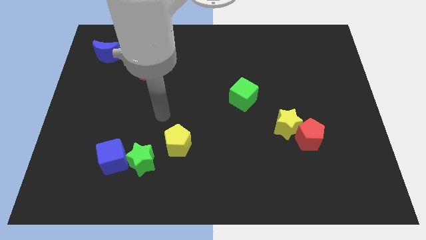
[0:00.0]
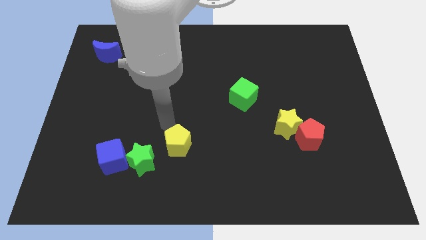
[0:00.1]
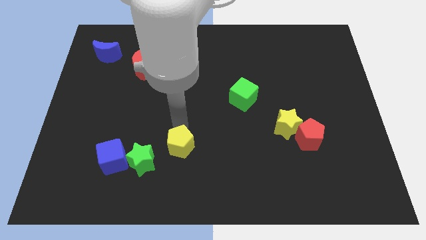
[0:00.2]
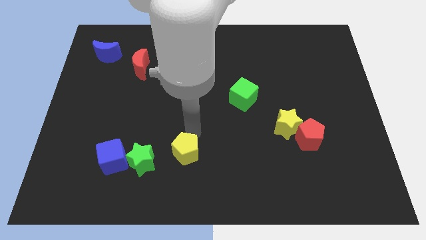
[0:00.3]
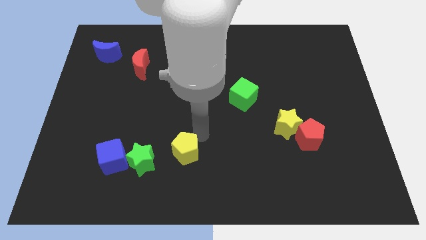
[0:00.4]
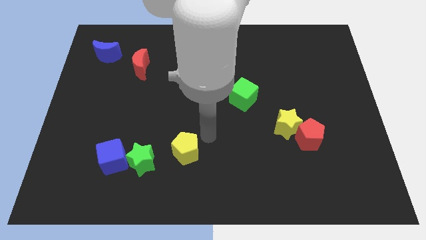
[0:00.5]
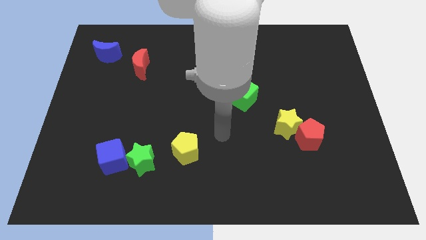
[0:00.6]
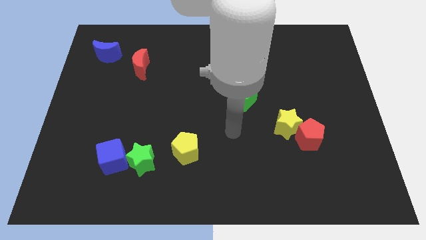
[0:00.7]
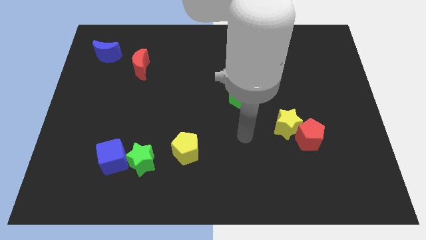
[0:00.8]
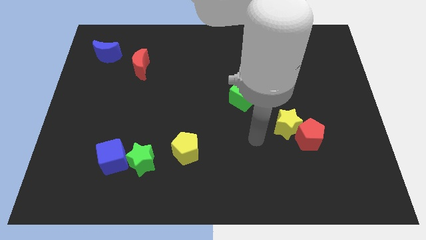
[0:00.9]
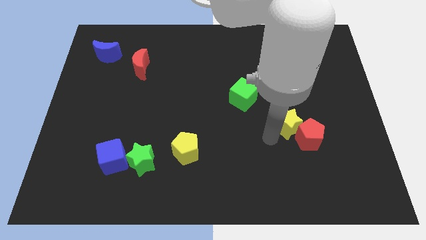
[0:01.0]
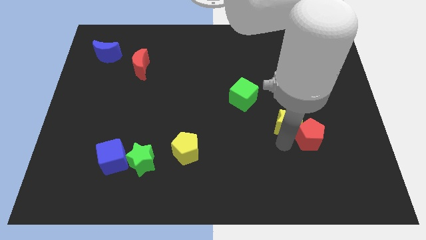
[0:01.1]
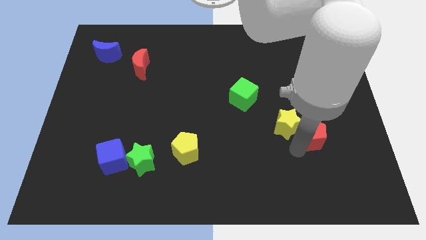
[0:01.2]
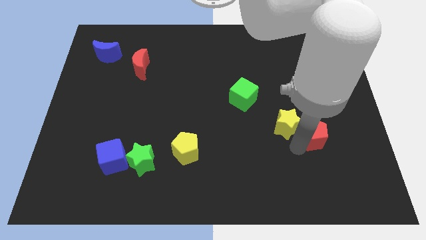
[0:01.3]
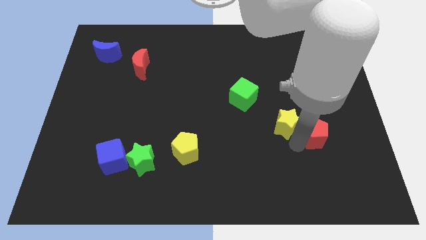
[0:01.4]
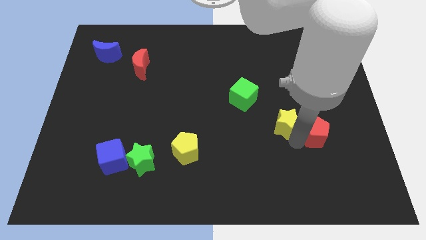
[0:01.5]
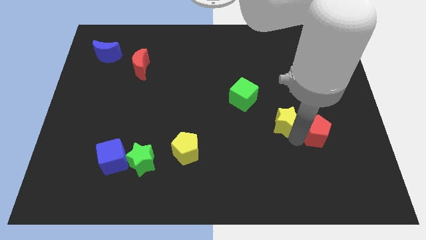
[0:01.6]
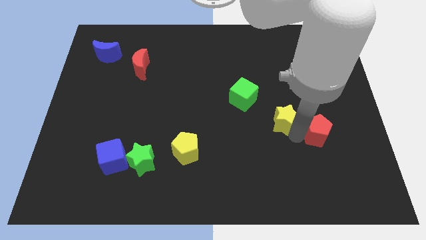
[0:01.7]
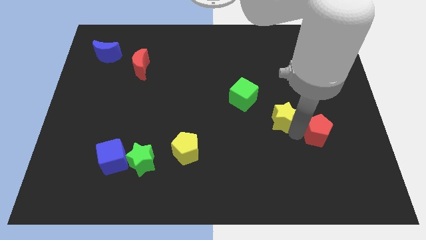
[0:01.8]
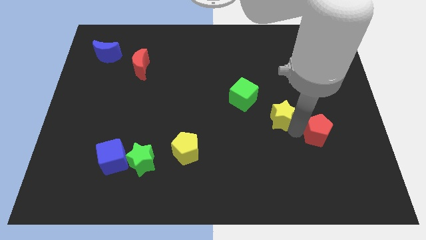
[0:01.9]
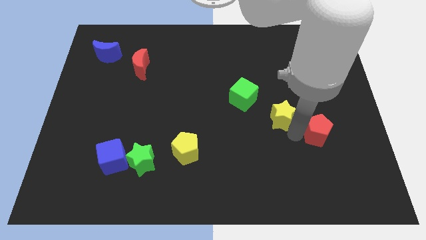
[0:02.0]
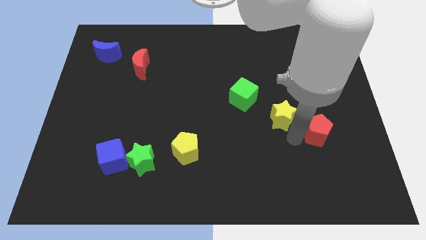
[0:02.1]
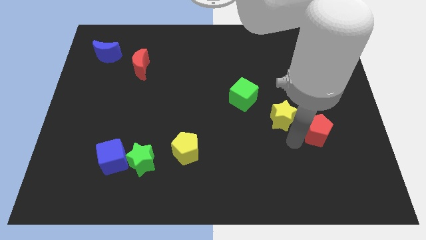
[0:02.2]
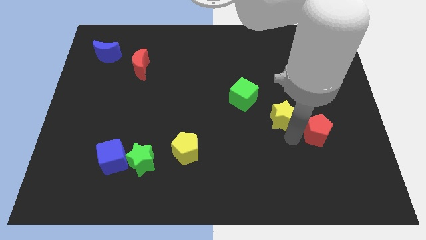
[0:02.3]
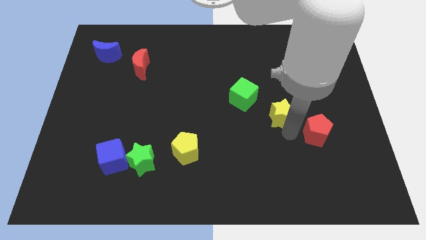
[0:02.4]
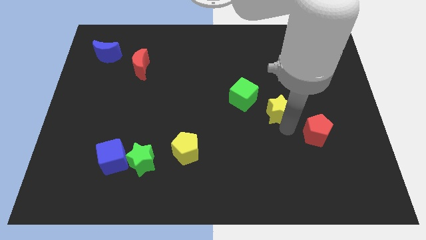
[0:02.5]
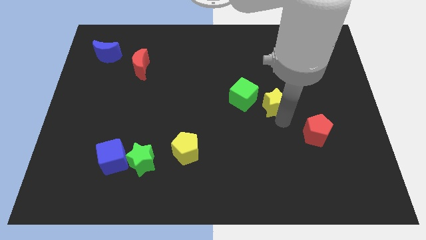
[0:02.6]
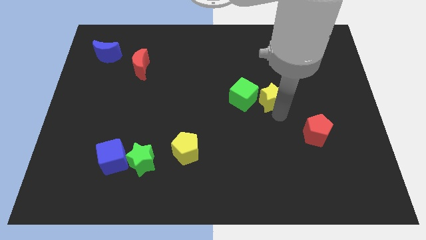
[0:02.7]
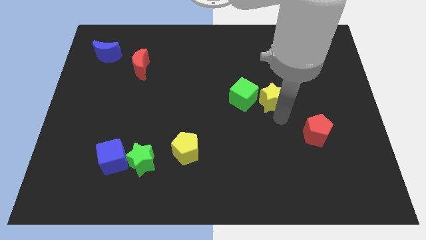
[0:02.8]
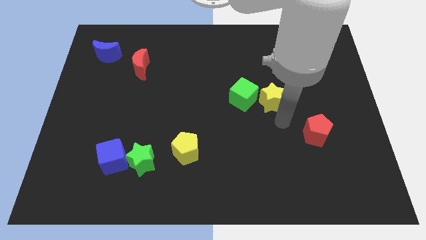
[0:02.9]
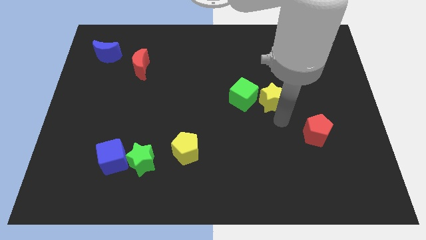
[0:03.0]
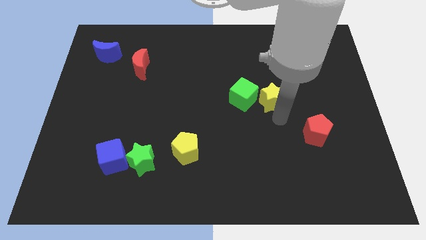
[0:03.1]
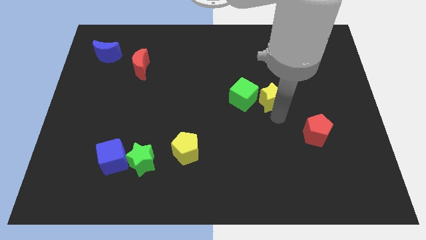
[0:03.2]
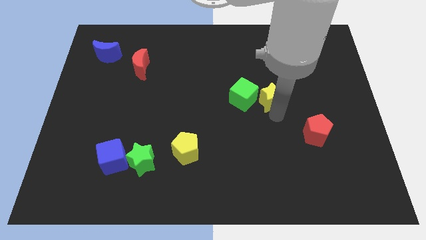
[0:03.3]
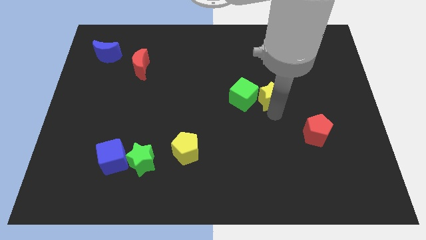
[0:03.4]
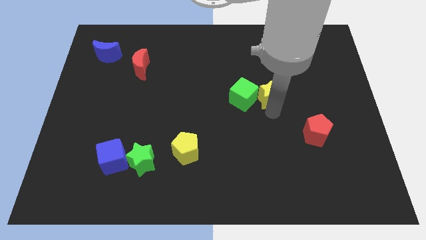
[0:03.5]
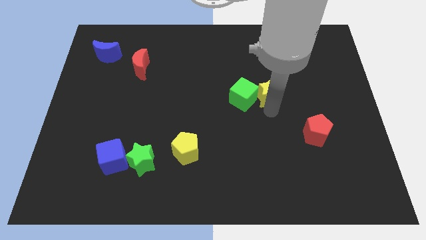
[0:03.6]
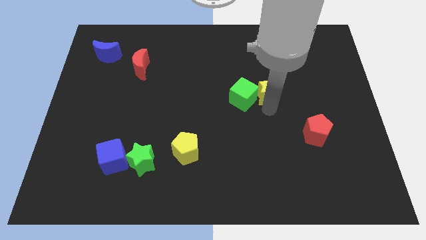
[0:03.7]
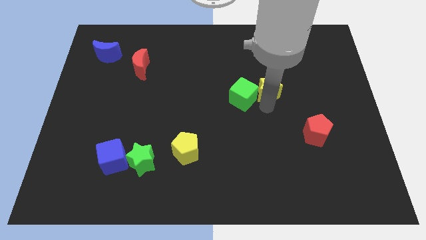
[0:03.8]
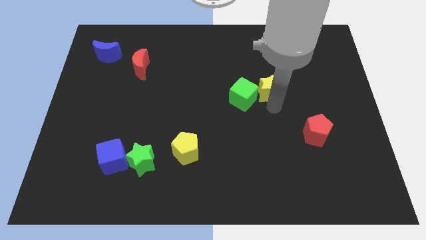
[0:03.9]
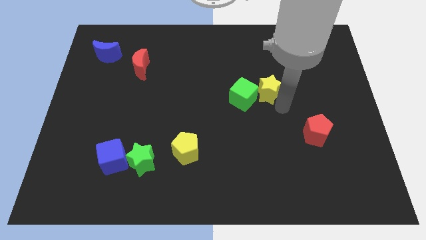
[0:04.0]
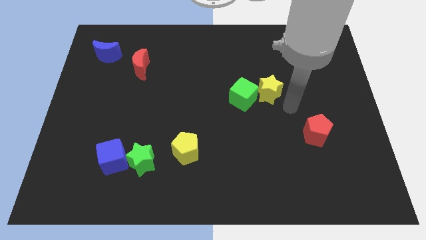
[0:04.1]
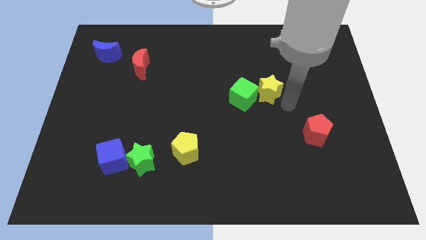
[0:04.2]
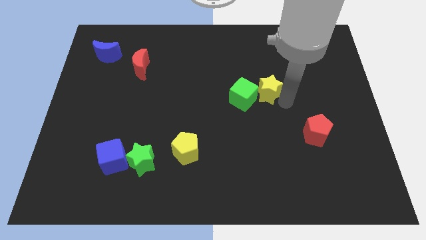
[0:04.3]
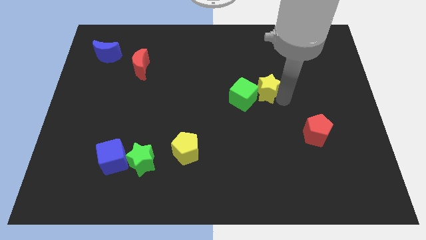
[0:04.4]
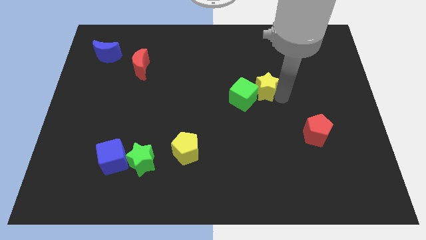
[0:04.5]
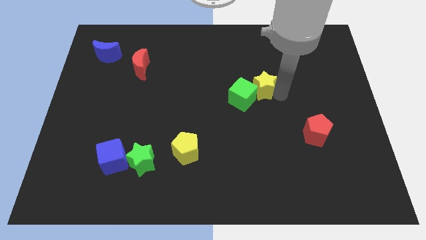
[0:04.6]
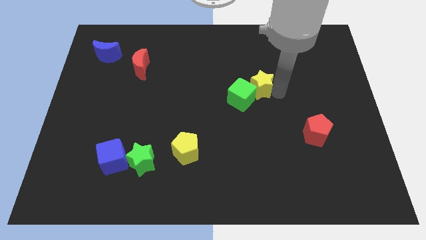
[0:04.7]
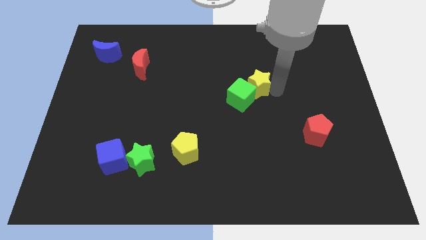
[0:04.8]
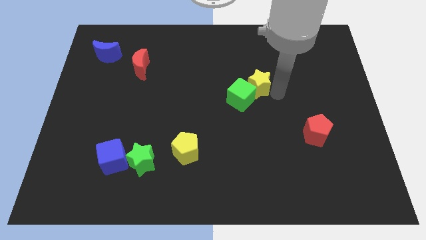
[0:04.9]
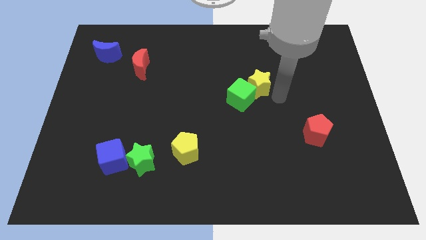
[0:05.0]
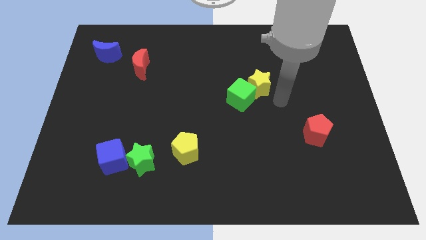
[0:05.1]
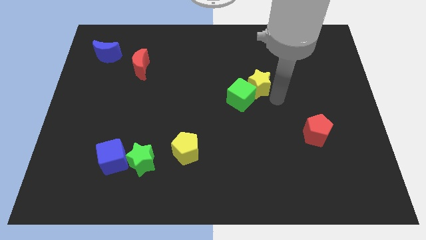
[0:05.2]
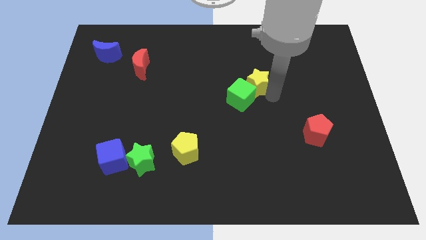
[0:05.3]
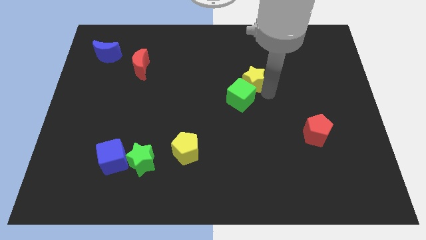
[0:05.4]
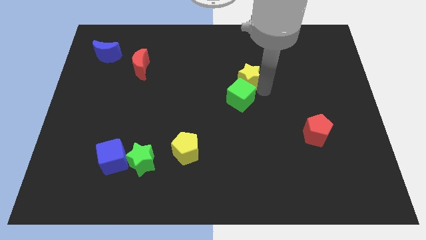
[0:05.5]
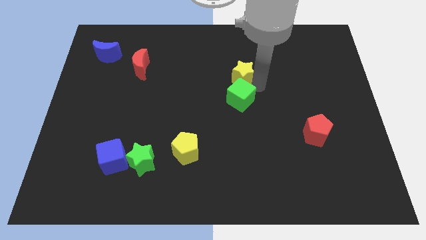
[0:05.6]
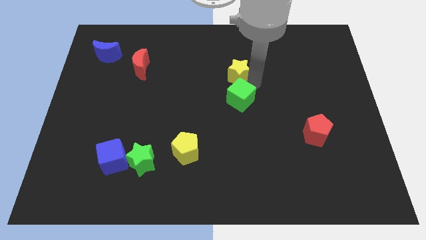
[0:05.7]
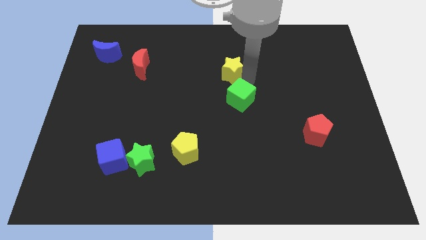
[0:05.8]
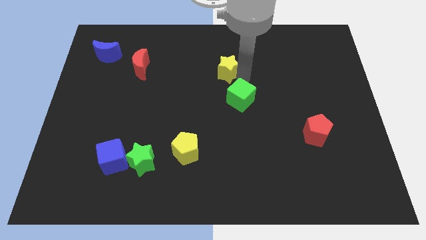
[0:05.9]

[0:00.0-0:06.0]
push the yellow star up and left diagonally

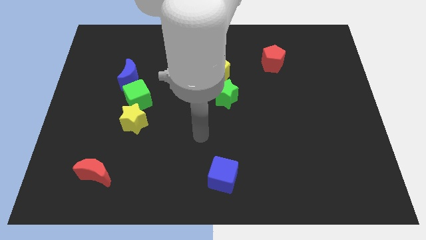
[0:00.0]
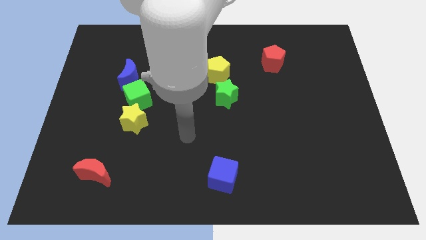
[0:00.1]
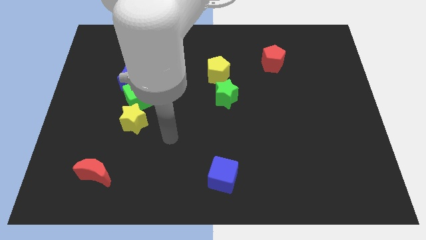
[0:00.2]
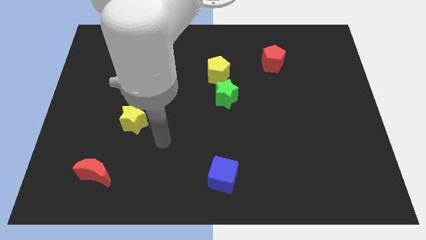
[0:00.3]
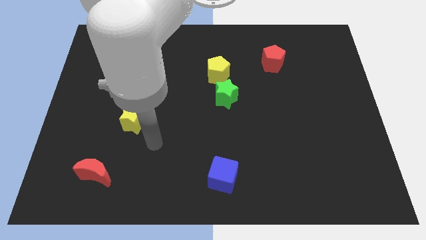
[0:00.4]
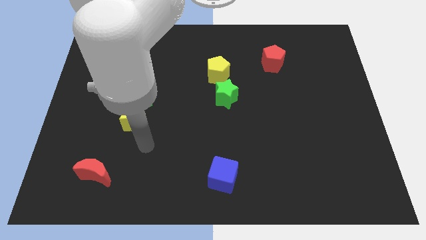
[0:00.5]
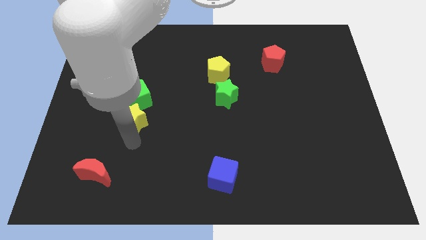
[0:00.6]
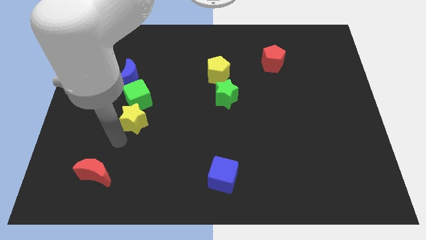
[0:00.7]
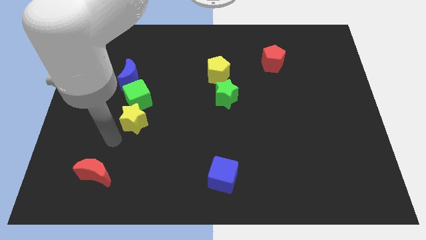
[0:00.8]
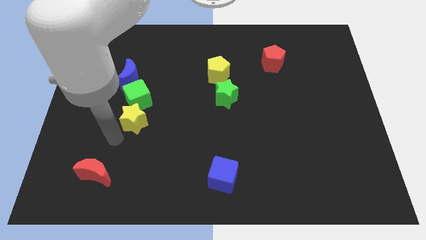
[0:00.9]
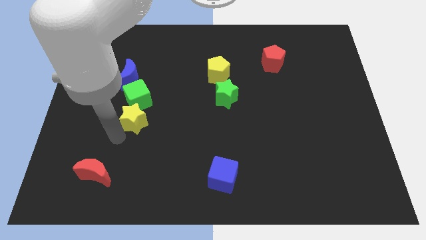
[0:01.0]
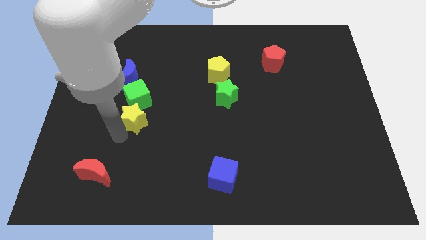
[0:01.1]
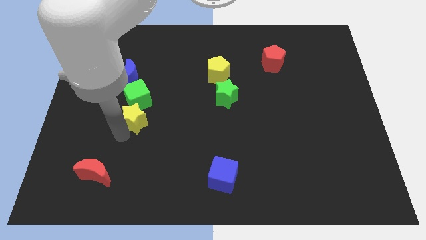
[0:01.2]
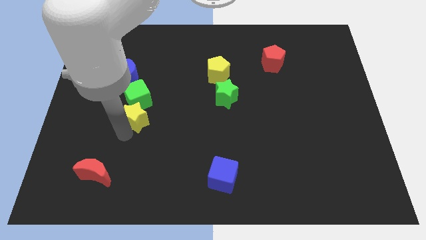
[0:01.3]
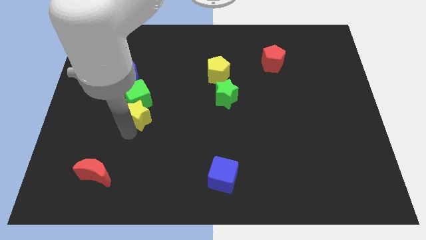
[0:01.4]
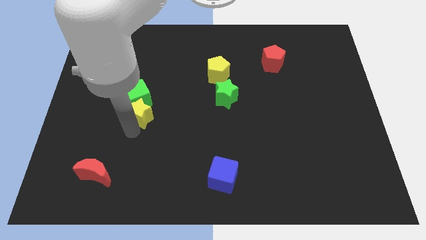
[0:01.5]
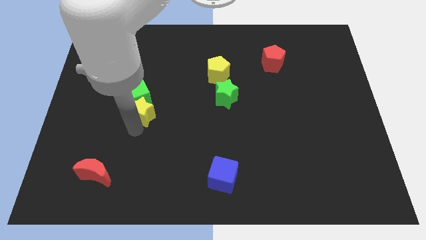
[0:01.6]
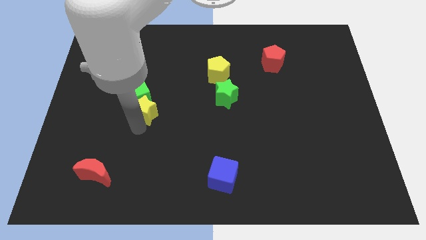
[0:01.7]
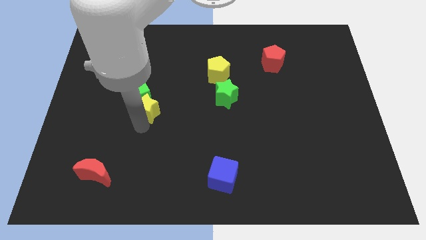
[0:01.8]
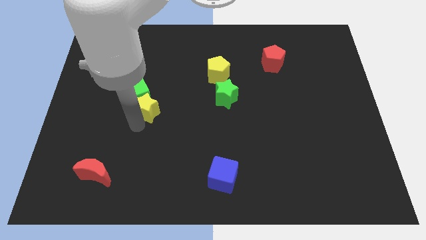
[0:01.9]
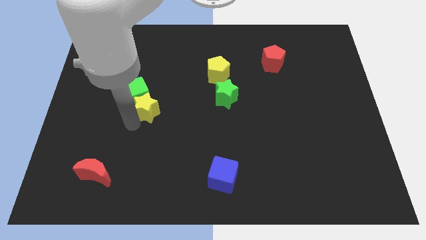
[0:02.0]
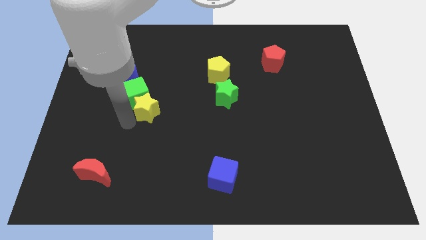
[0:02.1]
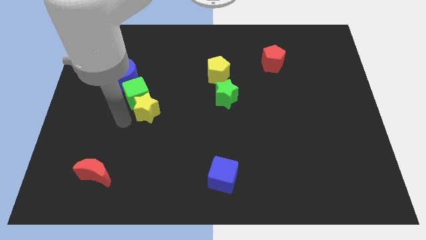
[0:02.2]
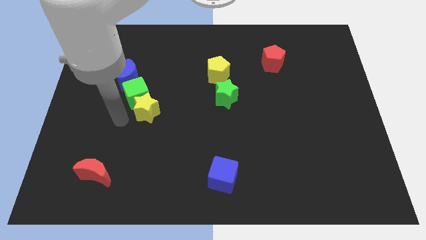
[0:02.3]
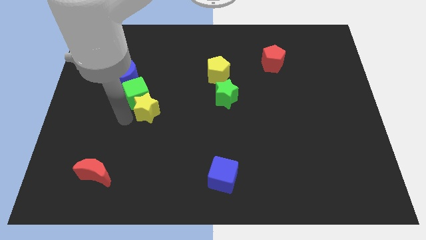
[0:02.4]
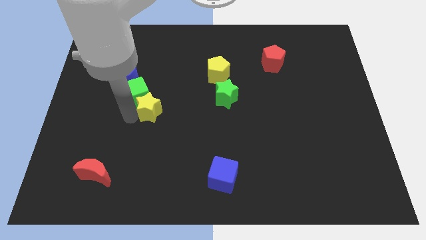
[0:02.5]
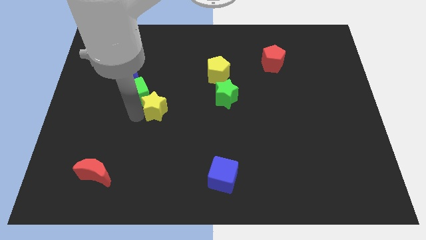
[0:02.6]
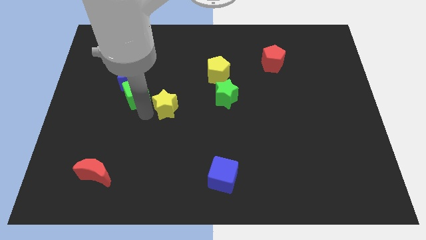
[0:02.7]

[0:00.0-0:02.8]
push the yellow star upwards and then to the right a little bit
